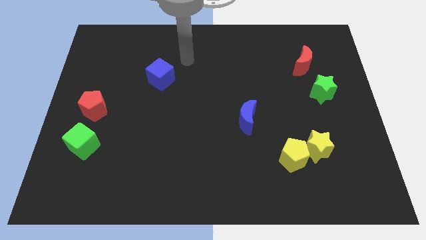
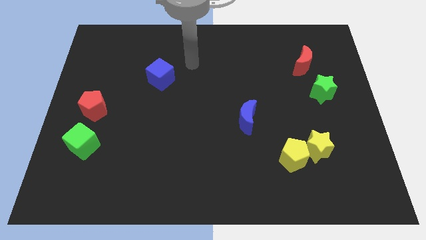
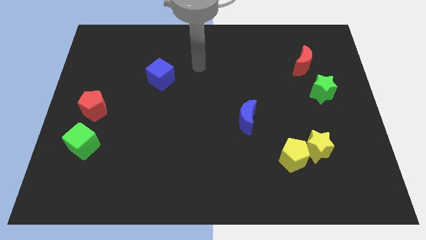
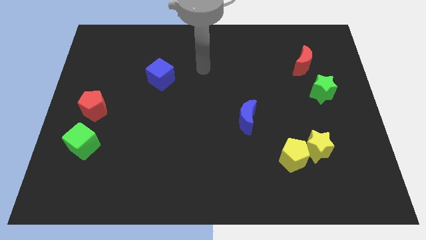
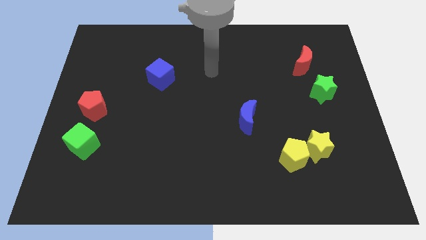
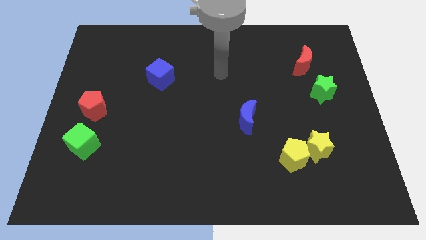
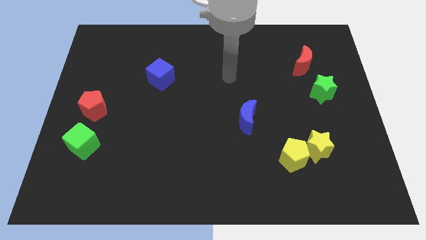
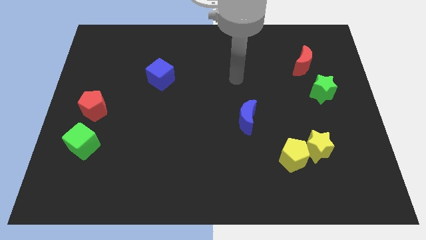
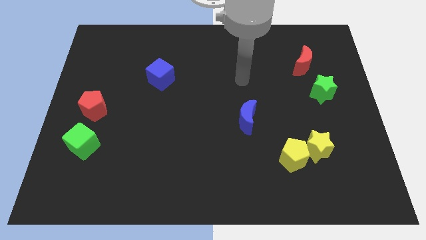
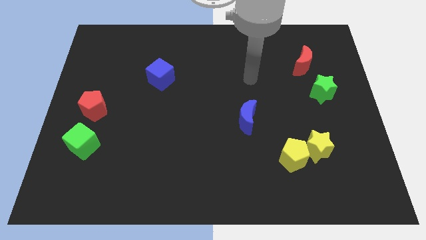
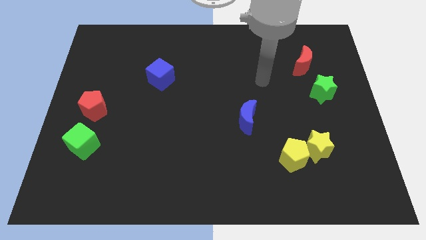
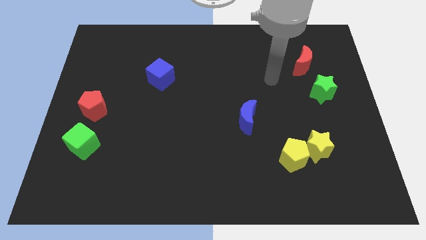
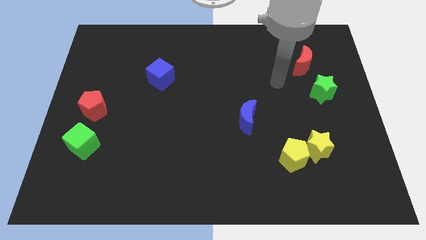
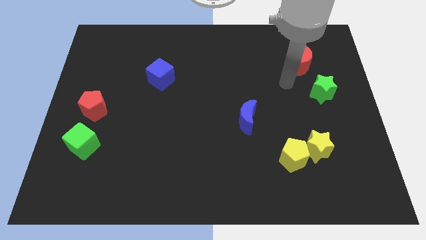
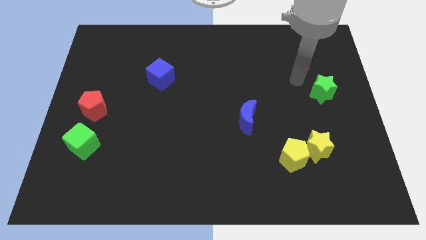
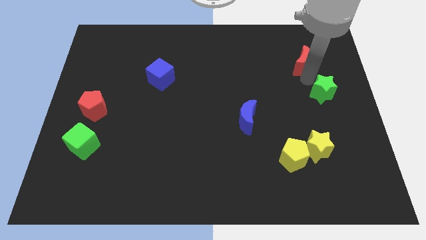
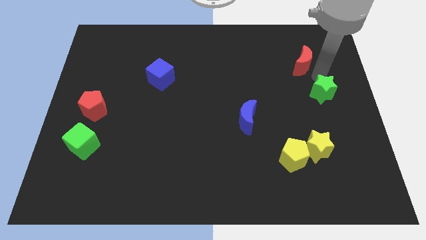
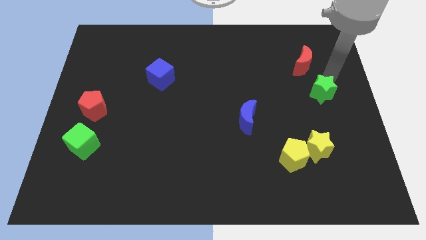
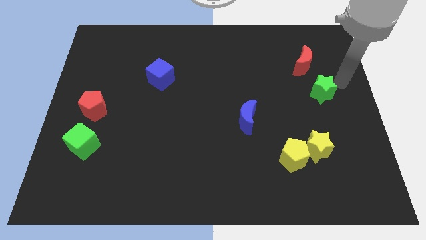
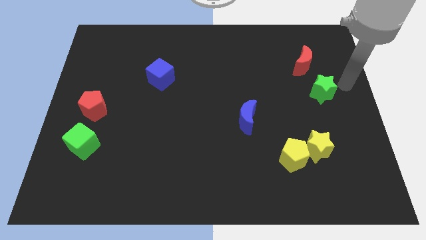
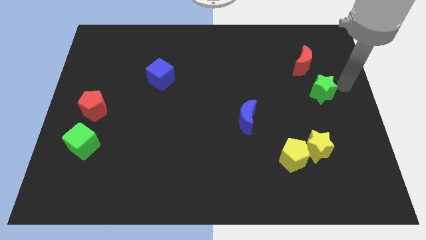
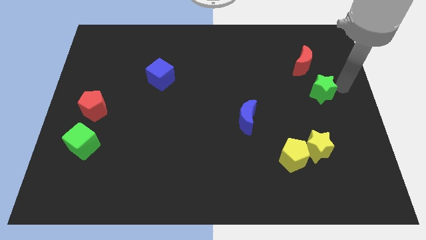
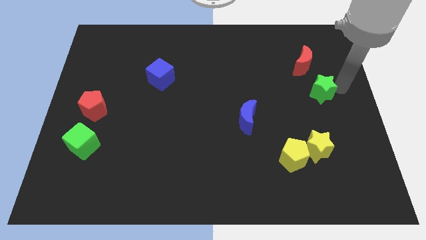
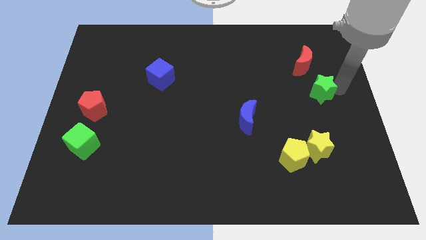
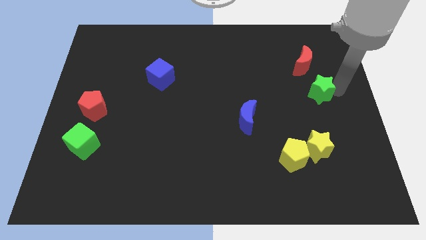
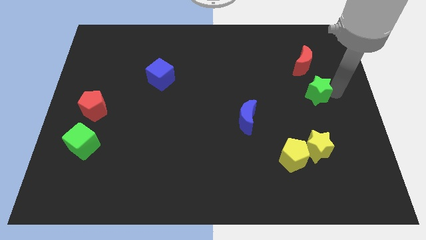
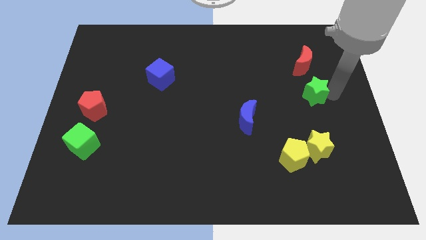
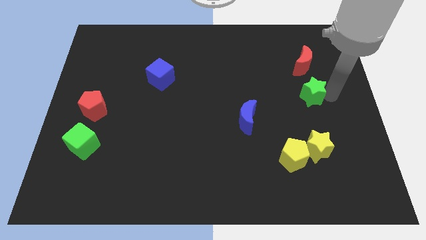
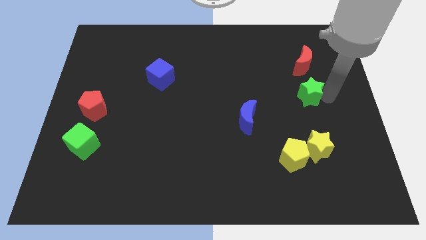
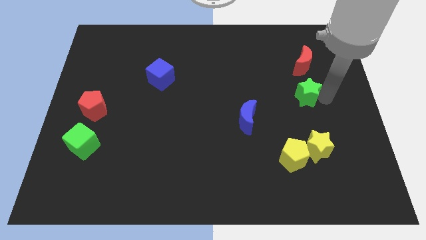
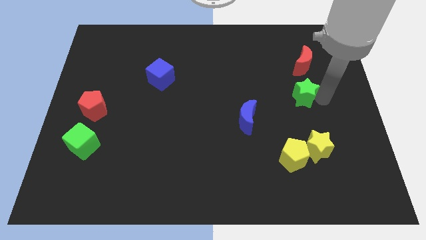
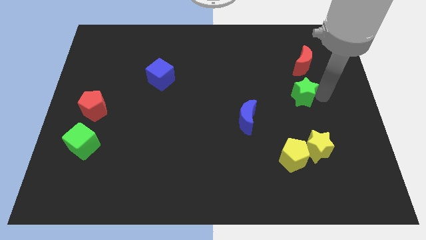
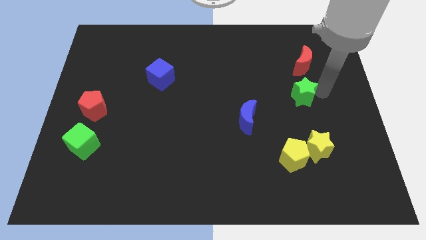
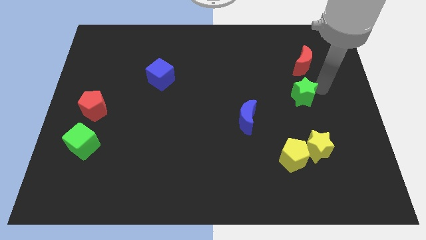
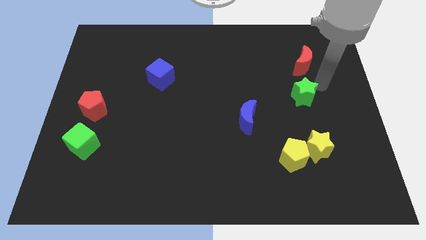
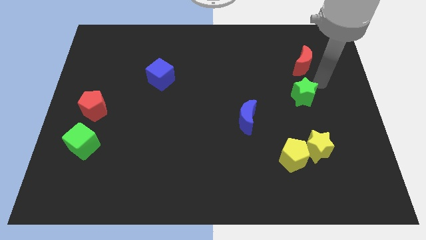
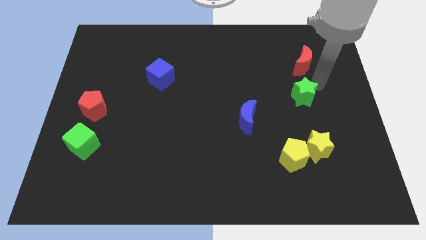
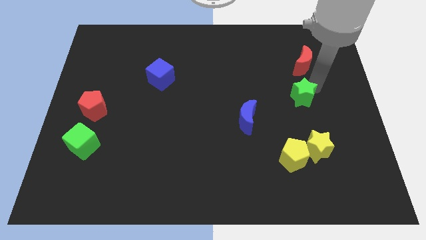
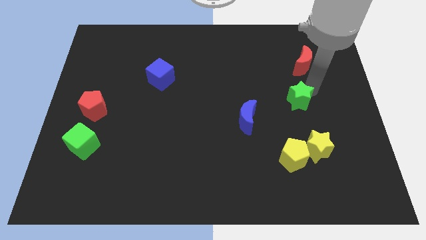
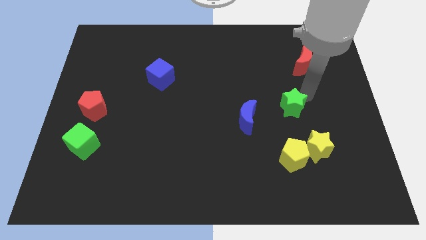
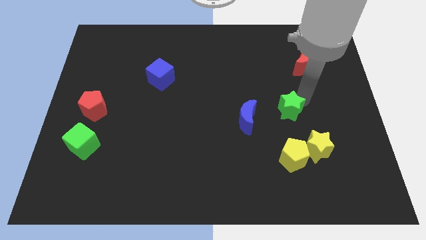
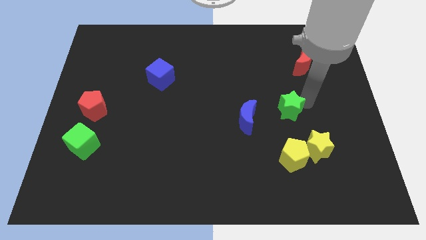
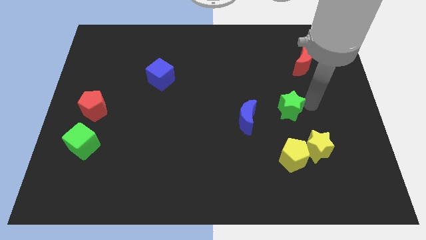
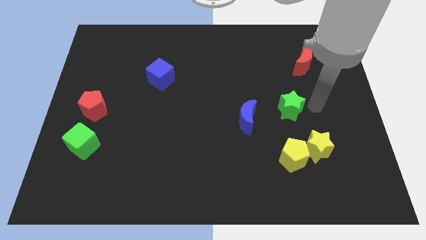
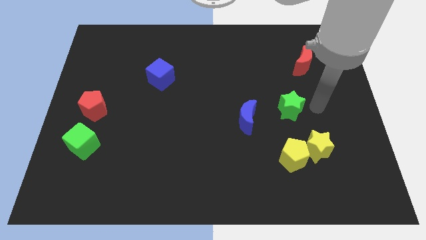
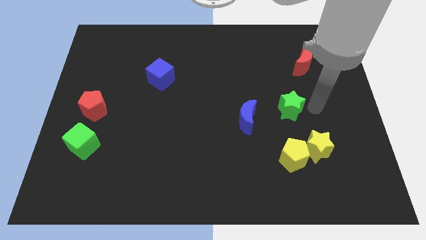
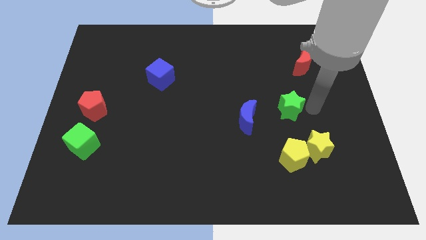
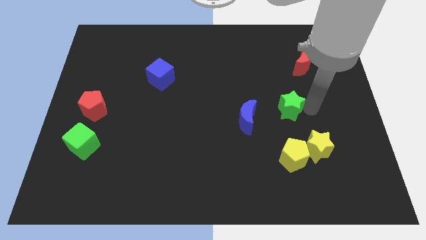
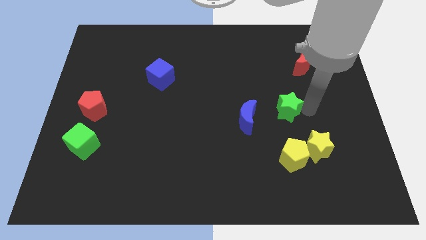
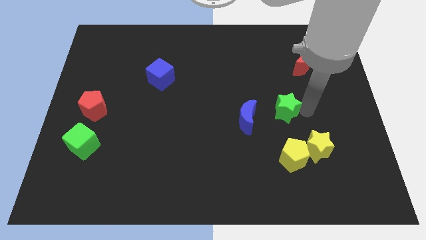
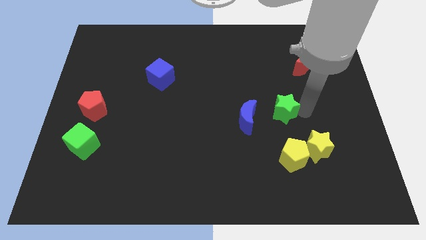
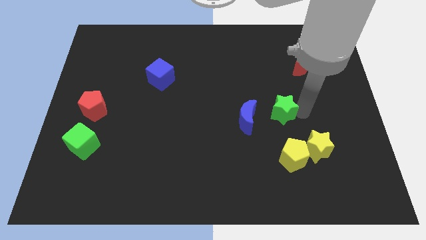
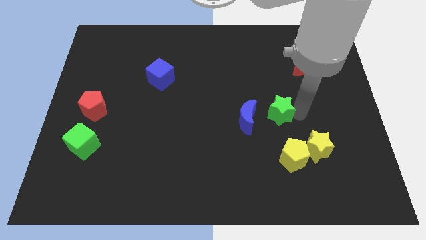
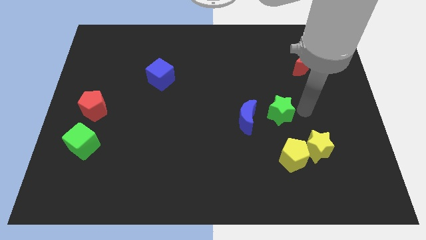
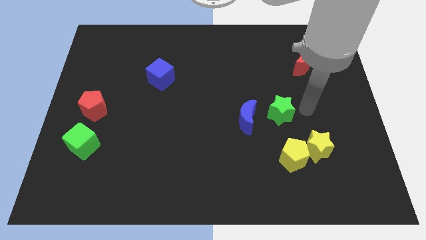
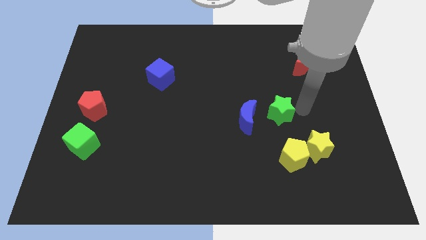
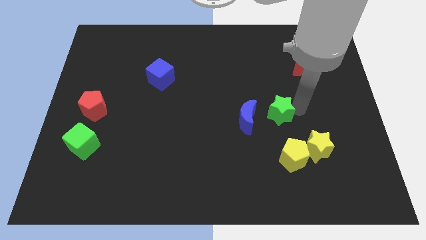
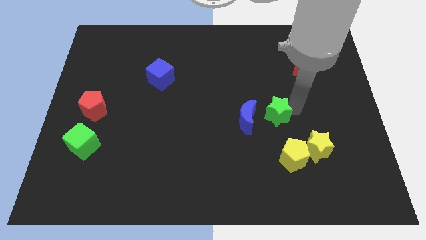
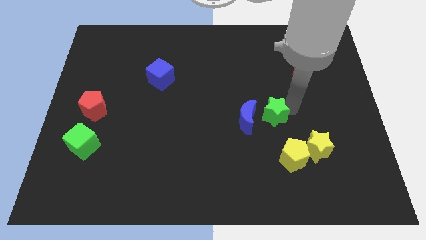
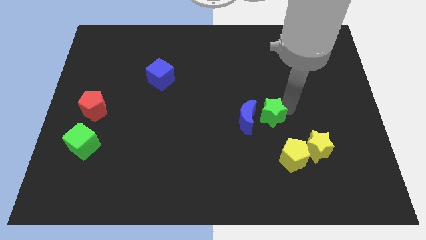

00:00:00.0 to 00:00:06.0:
move the green star to the blue moon

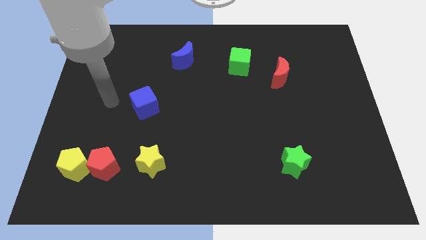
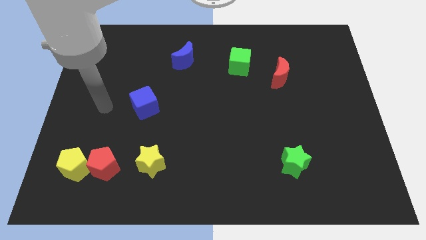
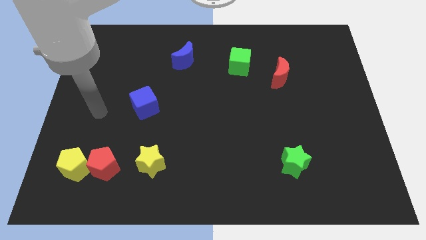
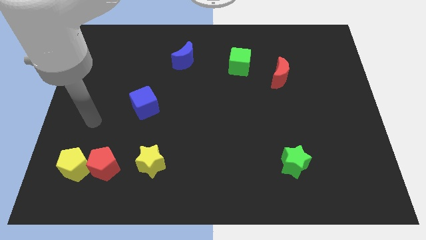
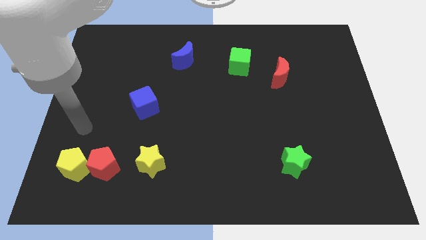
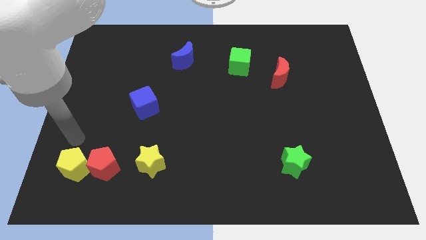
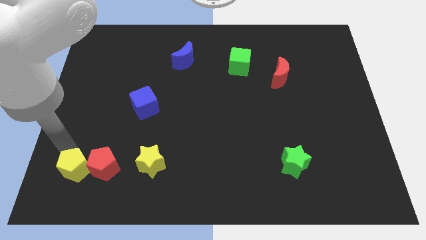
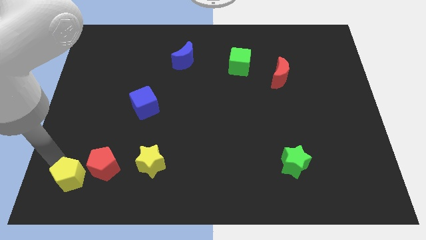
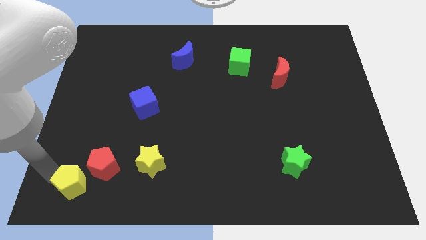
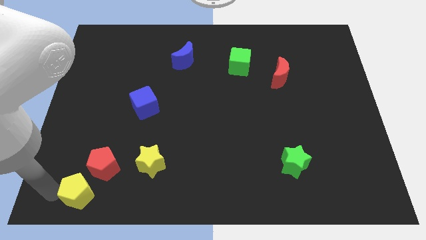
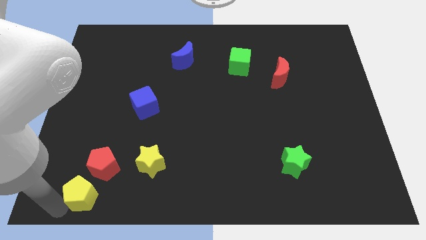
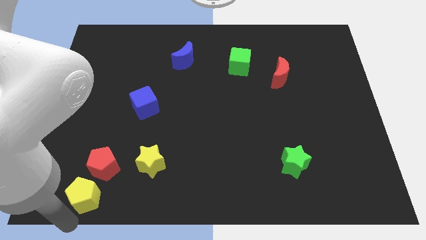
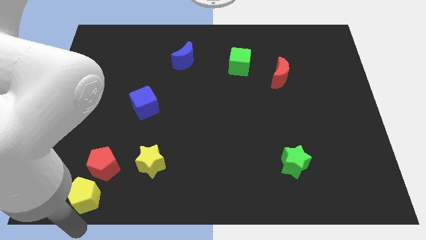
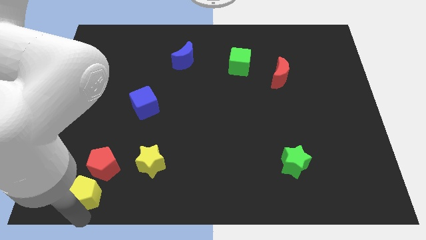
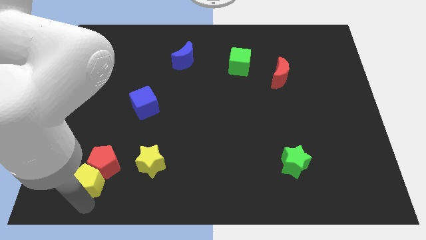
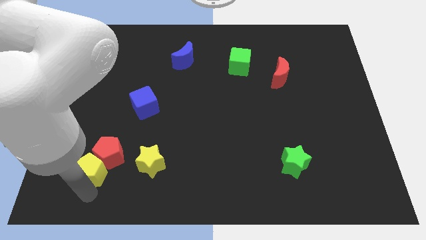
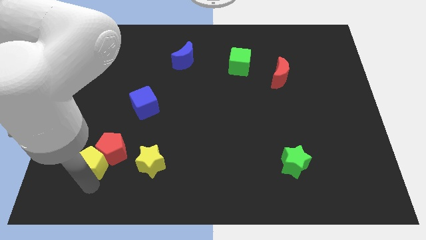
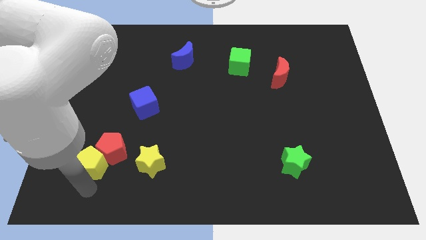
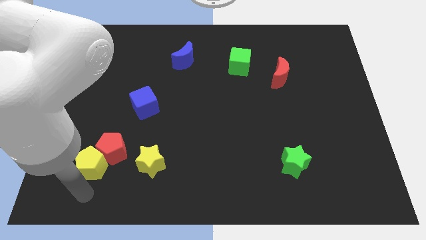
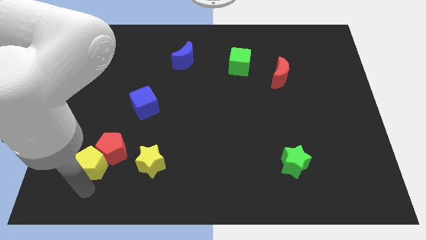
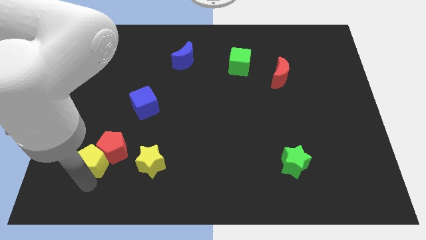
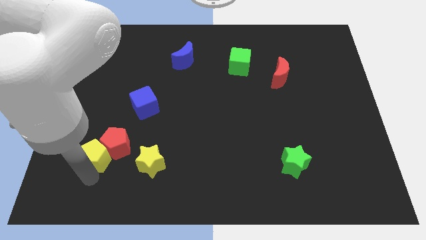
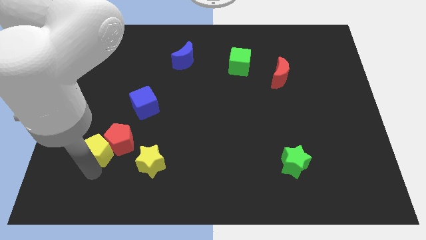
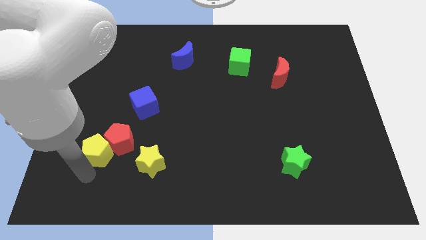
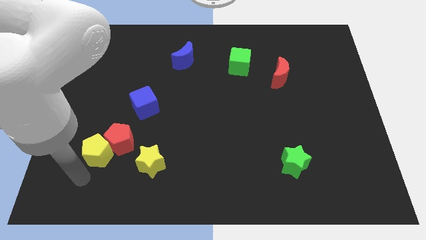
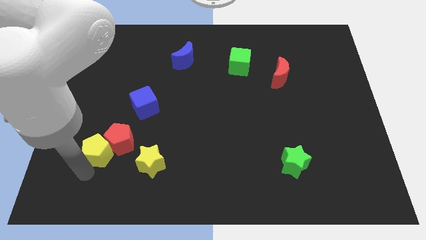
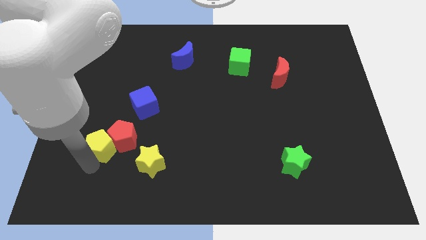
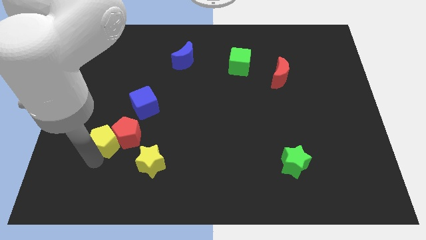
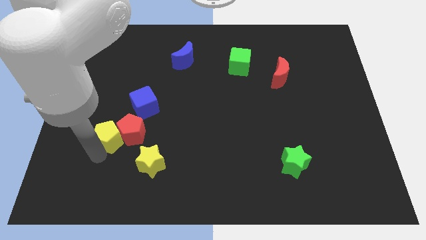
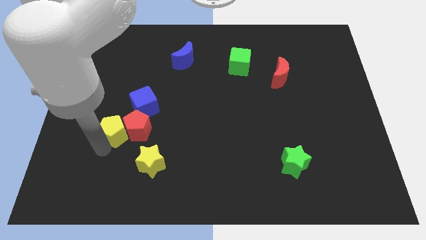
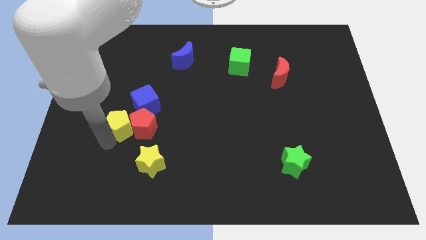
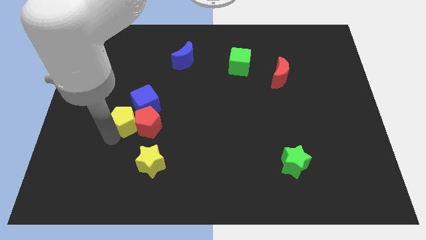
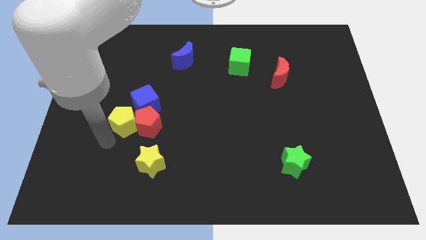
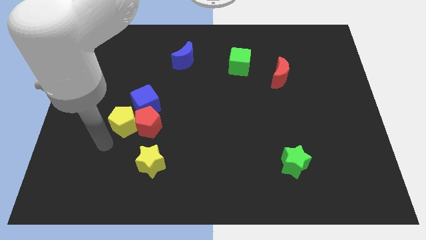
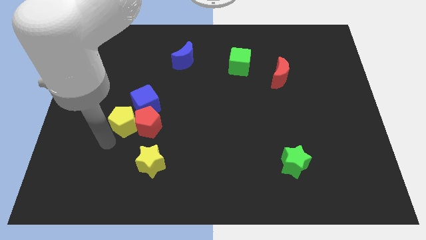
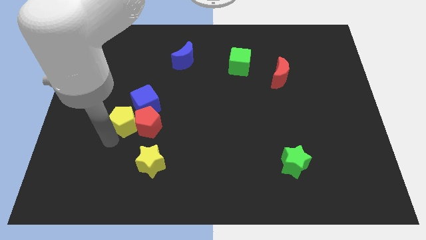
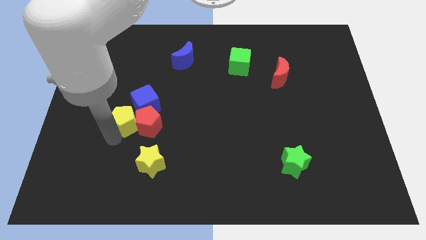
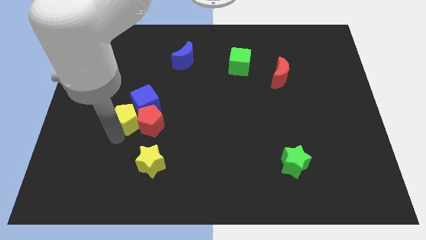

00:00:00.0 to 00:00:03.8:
slide the yellow pentagon towards the blue cube
